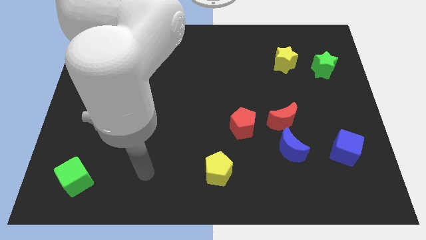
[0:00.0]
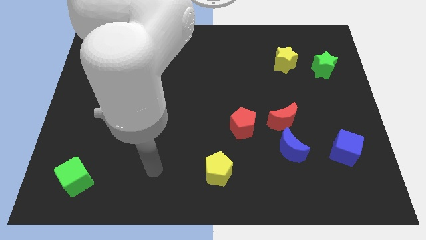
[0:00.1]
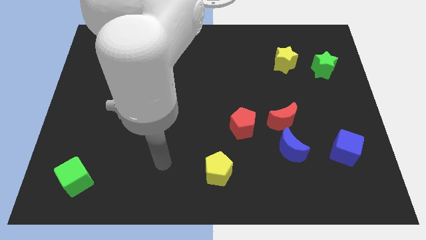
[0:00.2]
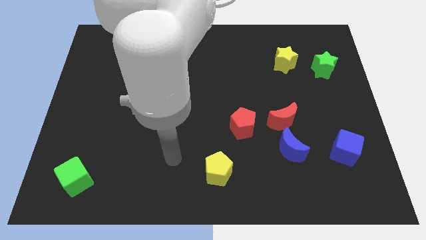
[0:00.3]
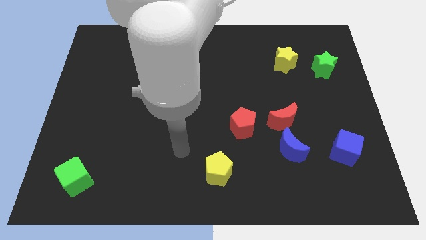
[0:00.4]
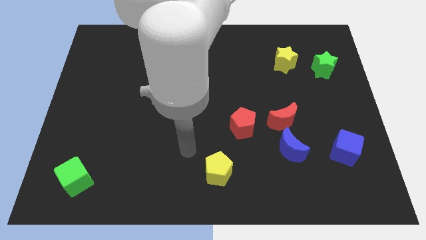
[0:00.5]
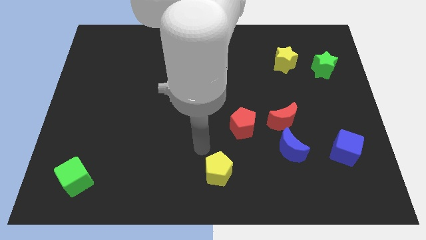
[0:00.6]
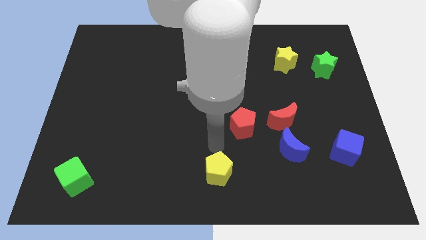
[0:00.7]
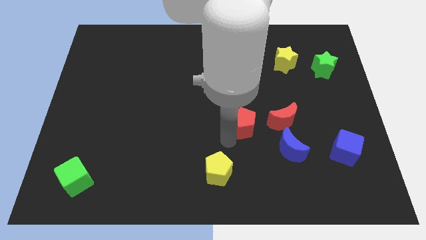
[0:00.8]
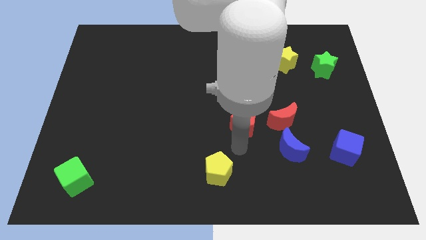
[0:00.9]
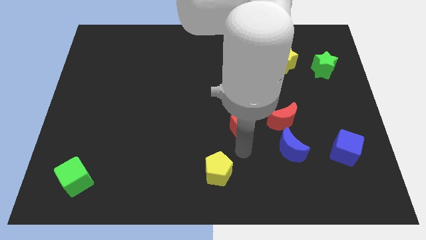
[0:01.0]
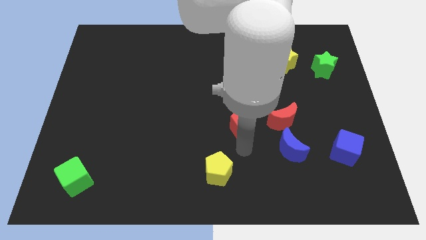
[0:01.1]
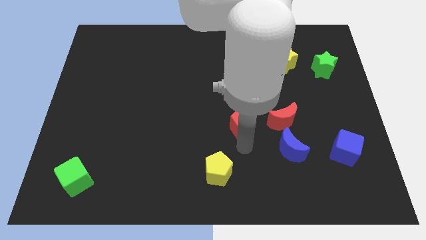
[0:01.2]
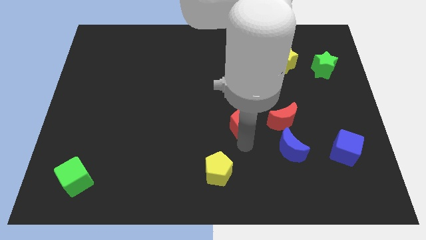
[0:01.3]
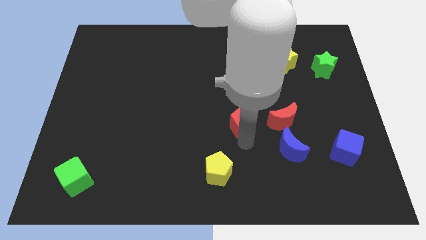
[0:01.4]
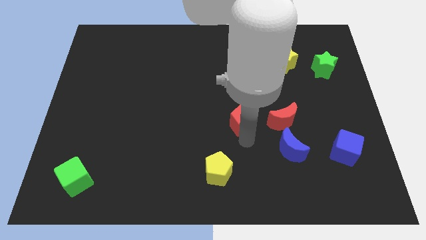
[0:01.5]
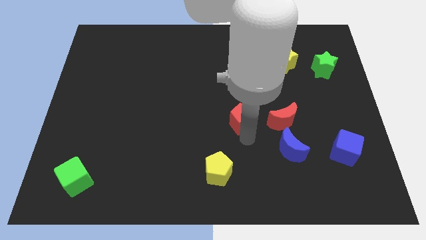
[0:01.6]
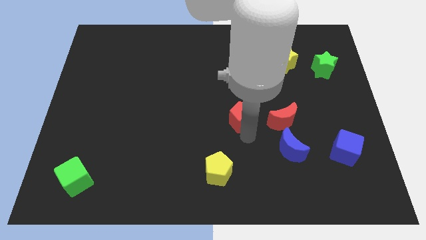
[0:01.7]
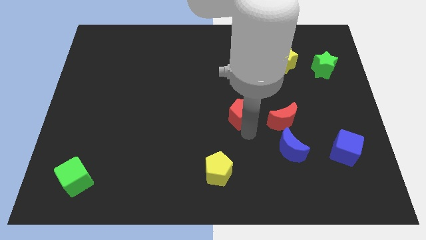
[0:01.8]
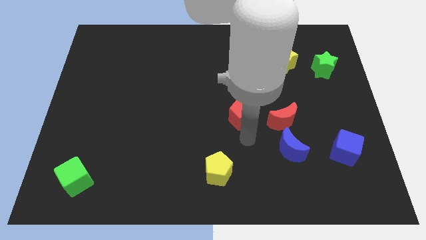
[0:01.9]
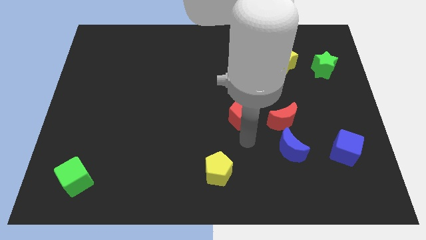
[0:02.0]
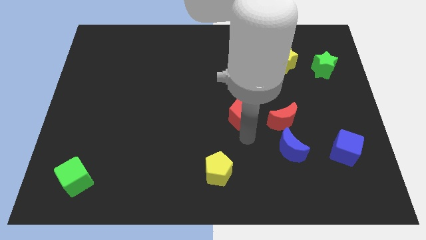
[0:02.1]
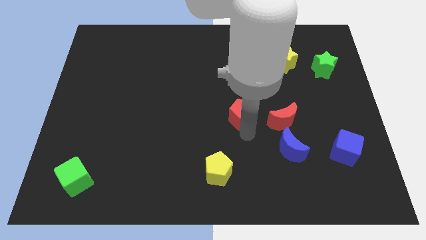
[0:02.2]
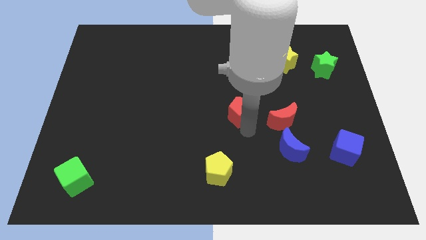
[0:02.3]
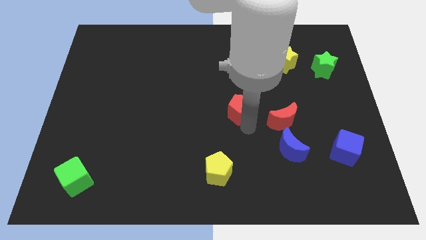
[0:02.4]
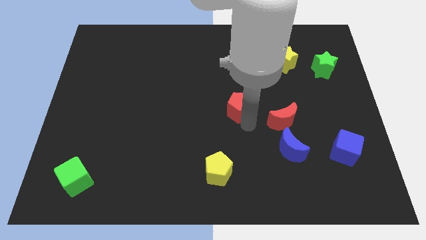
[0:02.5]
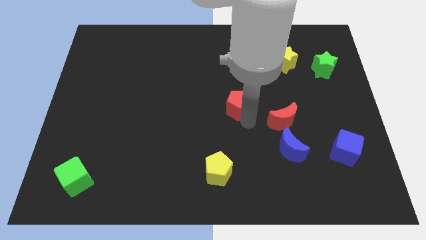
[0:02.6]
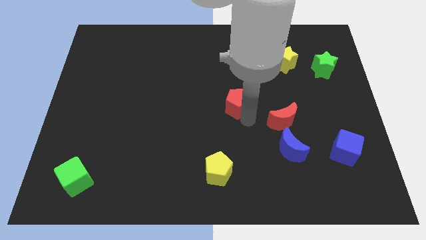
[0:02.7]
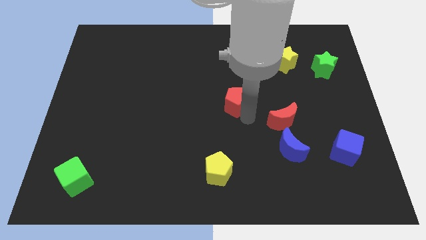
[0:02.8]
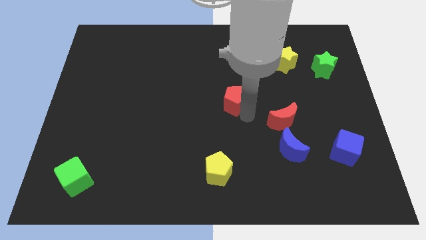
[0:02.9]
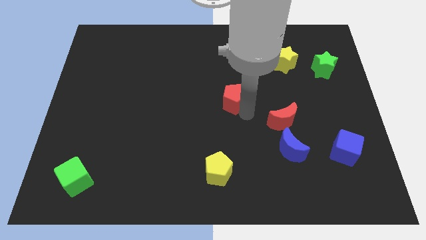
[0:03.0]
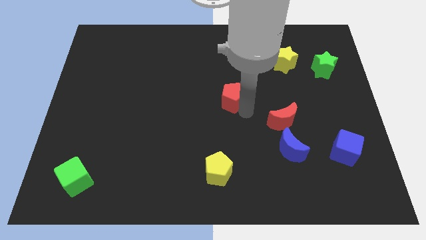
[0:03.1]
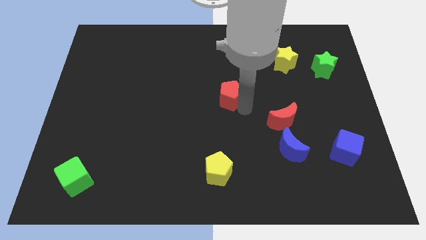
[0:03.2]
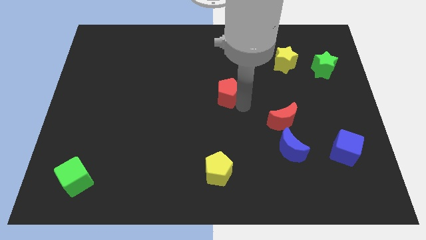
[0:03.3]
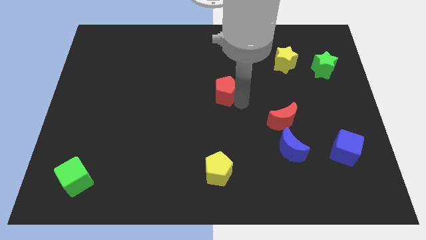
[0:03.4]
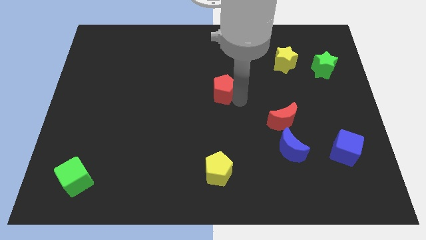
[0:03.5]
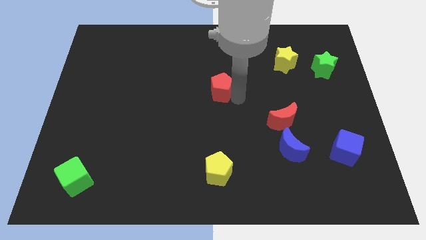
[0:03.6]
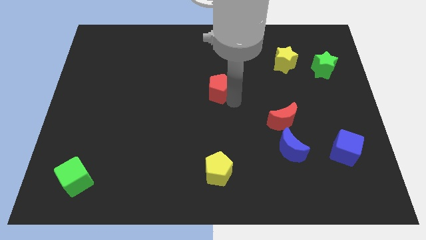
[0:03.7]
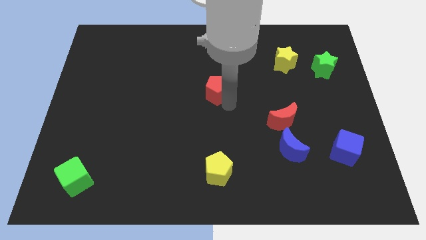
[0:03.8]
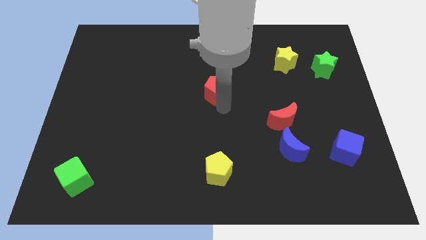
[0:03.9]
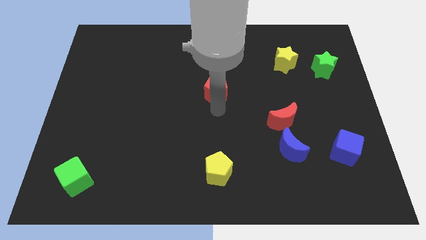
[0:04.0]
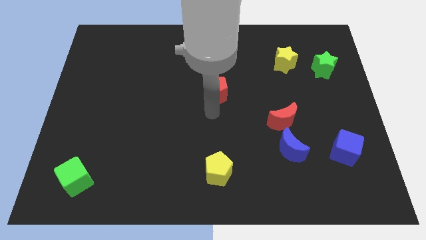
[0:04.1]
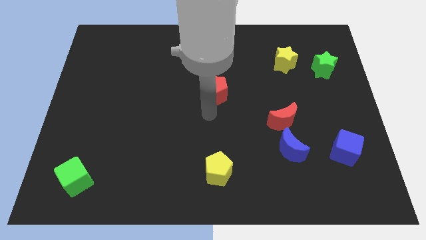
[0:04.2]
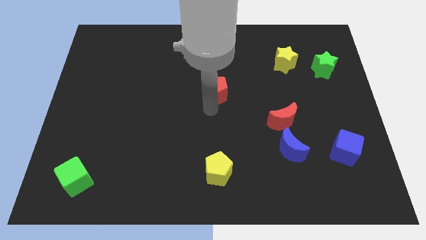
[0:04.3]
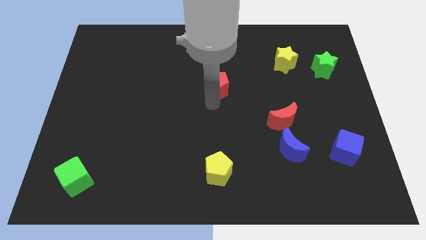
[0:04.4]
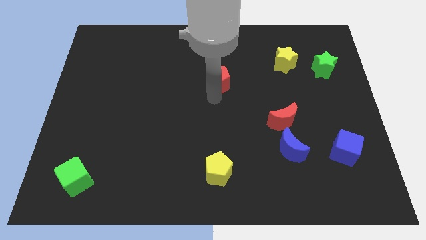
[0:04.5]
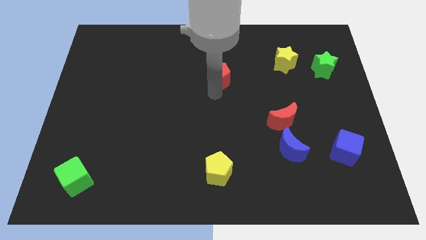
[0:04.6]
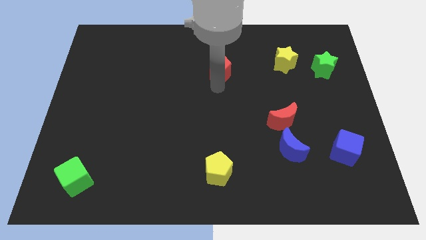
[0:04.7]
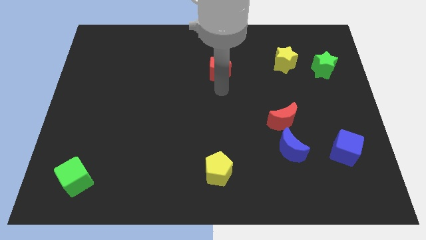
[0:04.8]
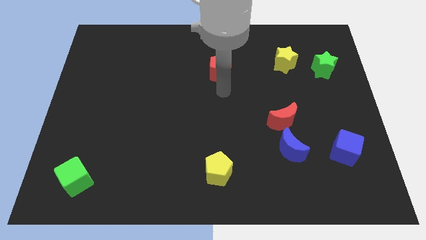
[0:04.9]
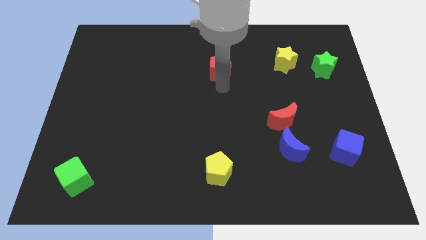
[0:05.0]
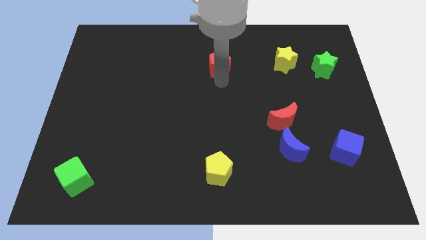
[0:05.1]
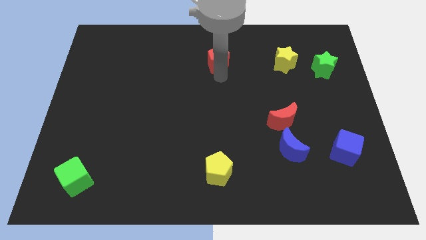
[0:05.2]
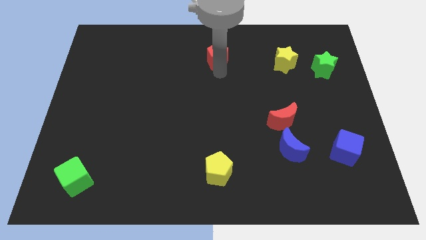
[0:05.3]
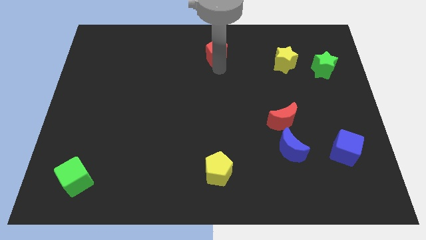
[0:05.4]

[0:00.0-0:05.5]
move the red pentagon to the towards your base

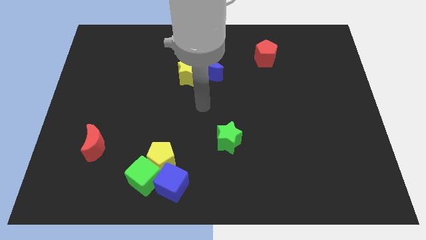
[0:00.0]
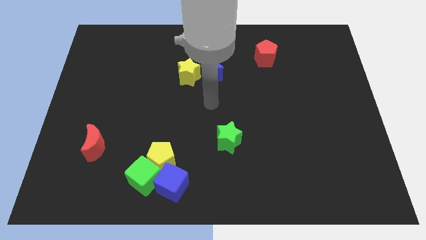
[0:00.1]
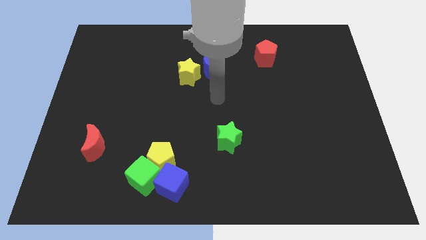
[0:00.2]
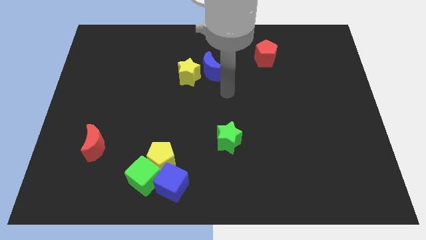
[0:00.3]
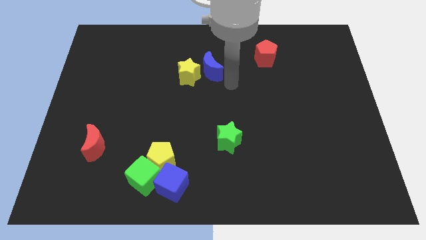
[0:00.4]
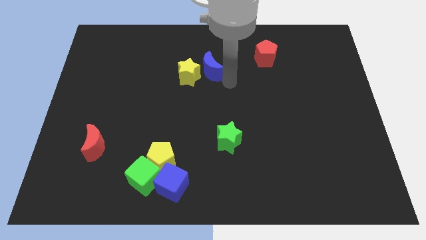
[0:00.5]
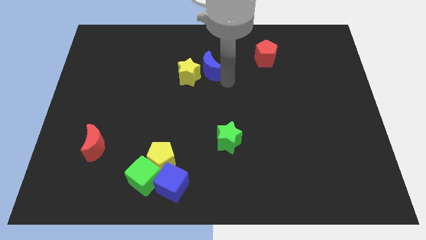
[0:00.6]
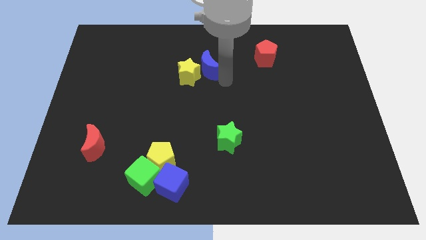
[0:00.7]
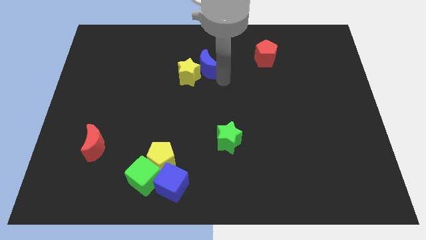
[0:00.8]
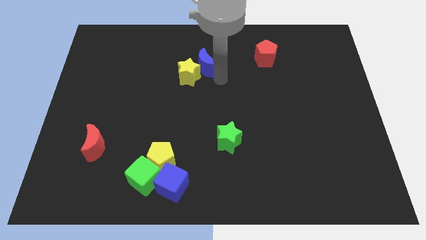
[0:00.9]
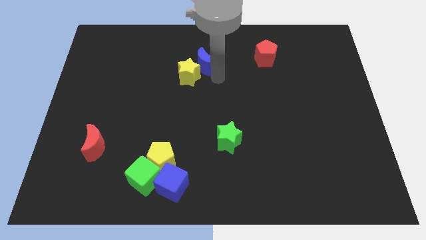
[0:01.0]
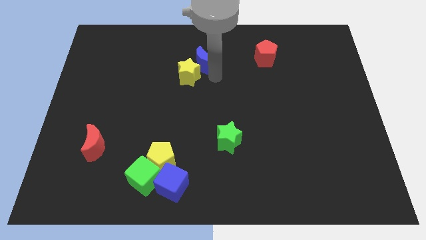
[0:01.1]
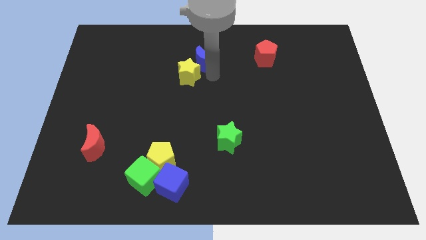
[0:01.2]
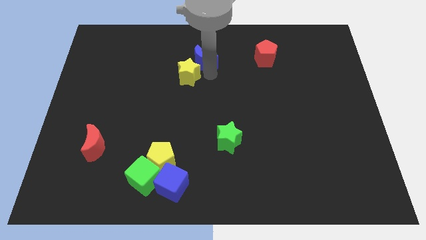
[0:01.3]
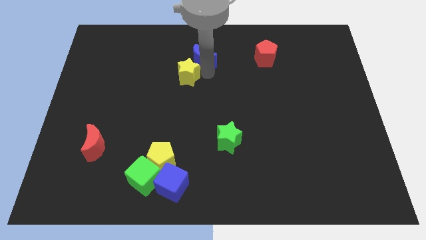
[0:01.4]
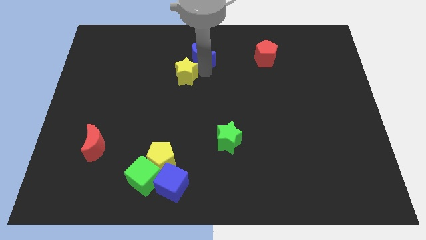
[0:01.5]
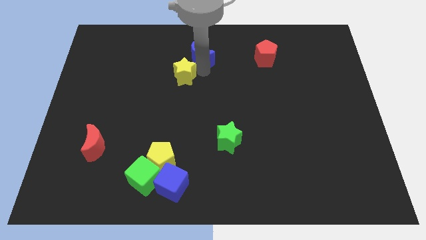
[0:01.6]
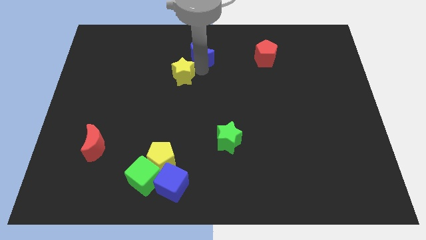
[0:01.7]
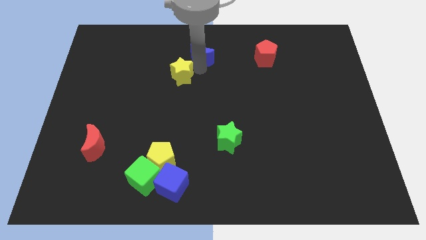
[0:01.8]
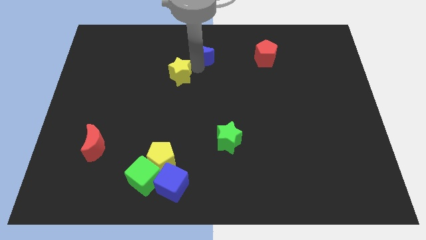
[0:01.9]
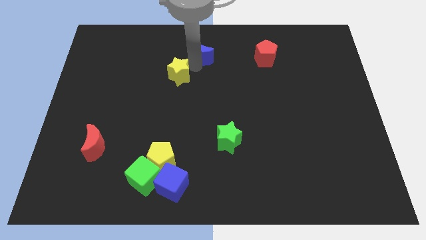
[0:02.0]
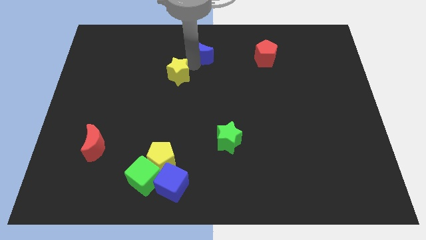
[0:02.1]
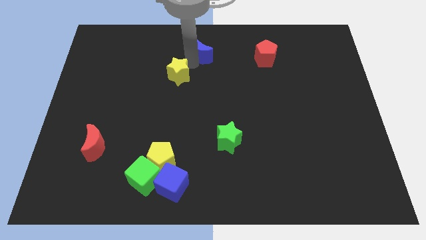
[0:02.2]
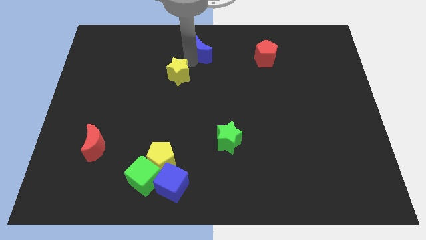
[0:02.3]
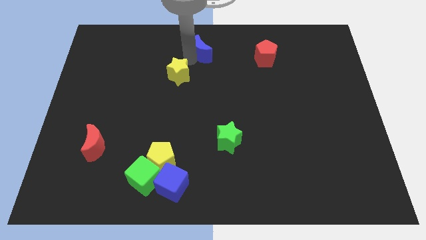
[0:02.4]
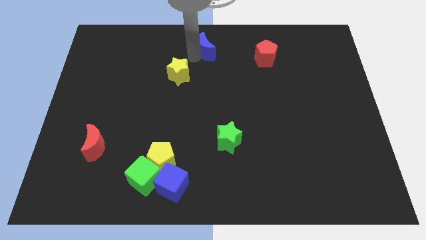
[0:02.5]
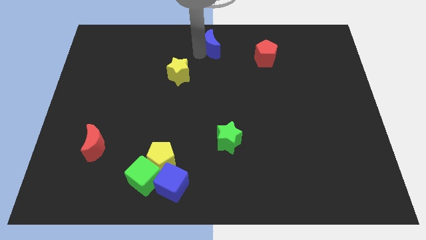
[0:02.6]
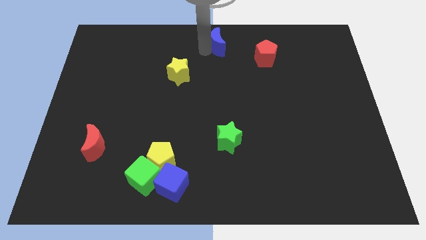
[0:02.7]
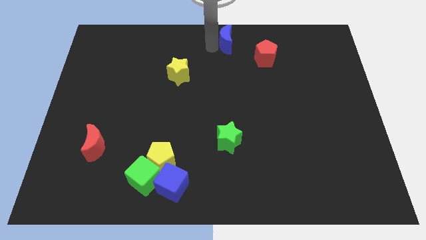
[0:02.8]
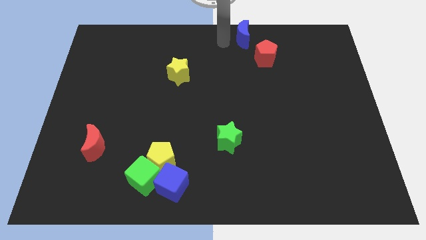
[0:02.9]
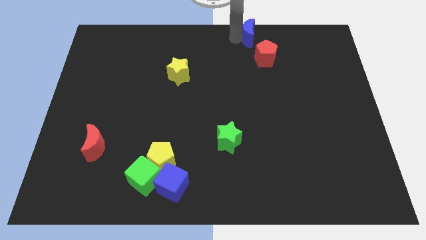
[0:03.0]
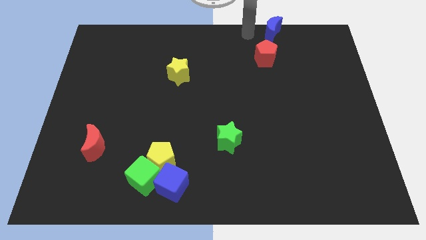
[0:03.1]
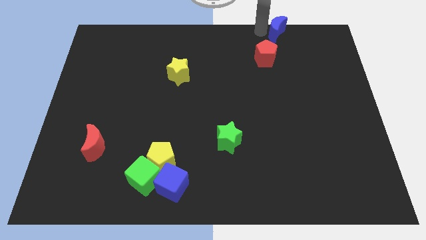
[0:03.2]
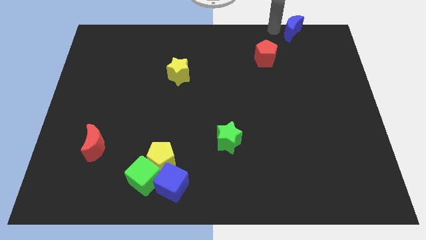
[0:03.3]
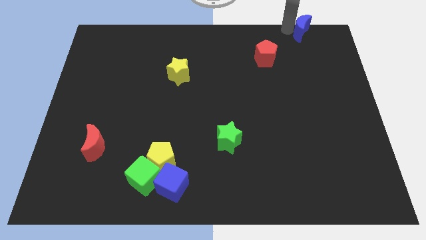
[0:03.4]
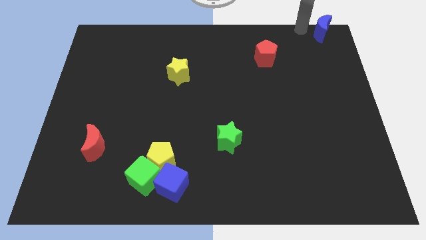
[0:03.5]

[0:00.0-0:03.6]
push the blue moon to the upper right corner
